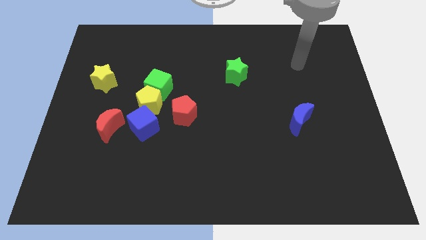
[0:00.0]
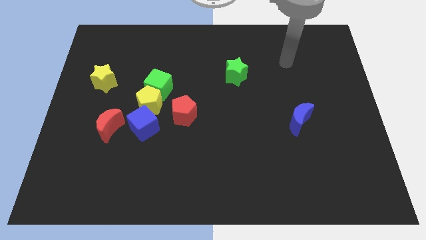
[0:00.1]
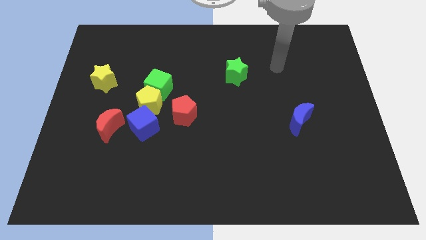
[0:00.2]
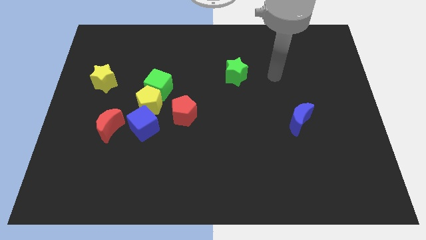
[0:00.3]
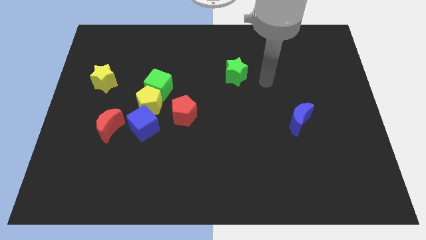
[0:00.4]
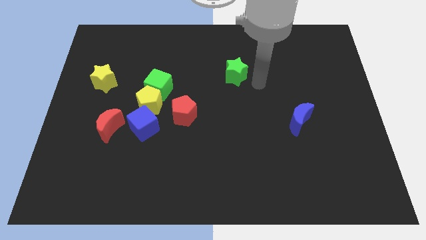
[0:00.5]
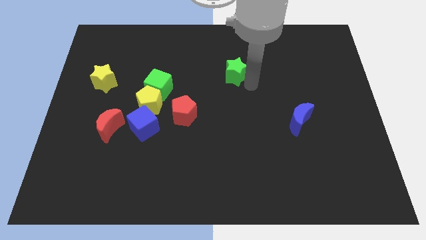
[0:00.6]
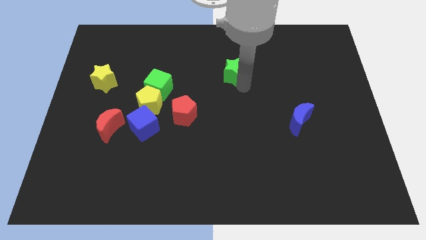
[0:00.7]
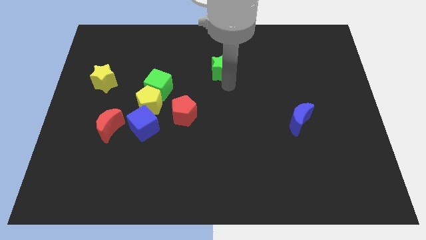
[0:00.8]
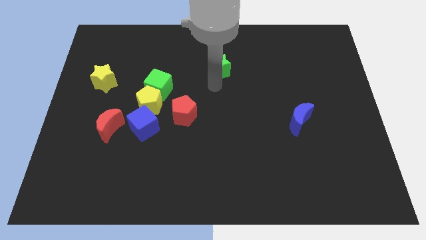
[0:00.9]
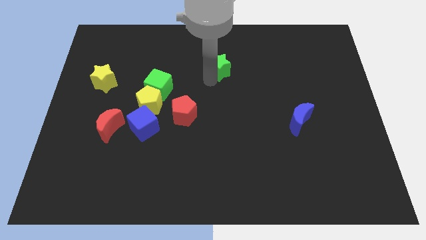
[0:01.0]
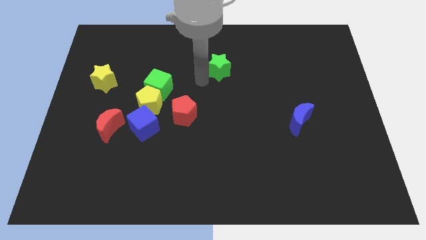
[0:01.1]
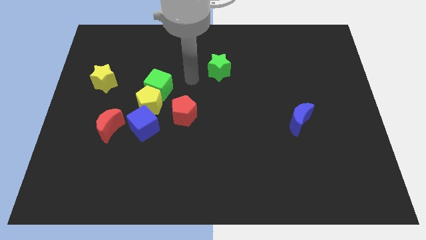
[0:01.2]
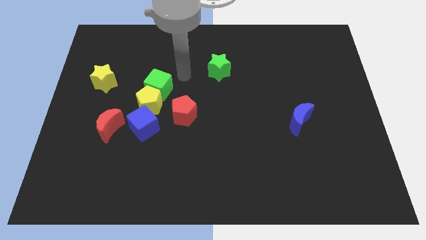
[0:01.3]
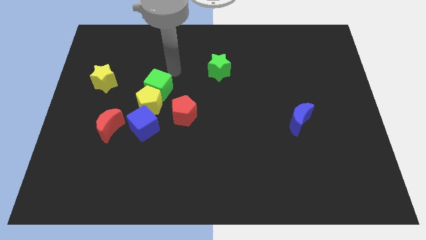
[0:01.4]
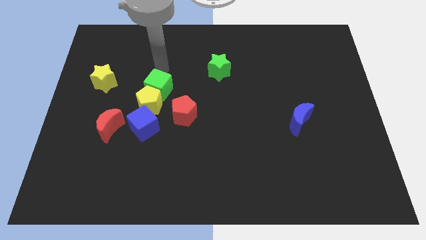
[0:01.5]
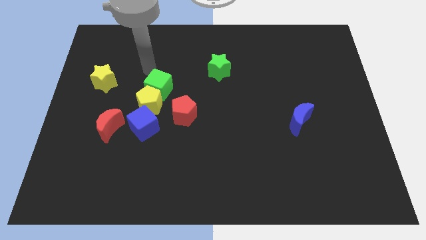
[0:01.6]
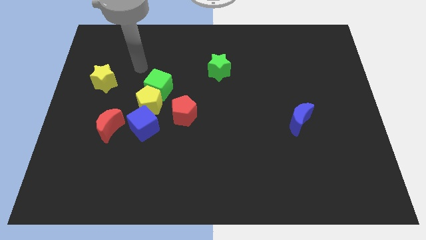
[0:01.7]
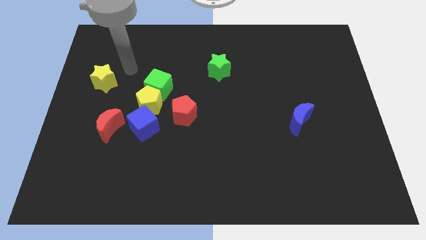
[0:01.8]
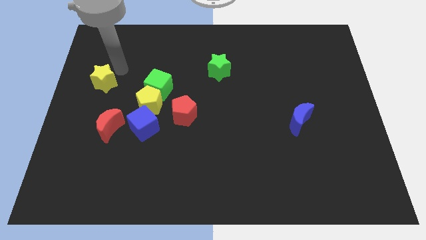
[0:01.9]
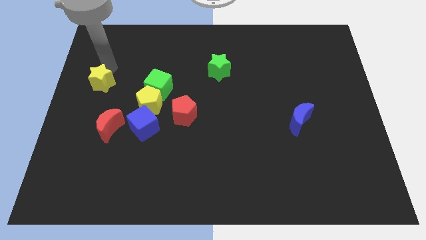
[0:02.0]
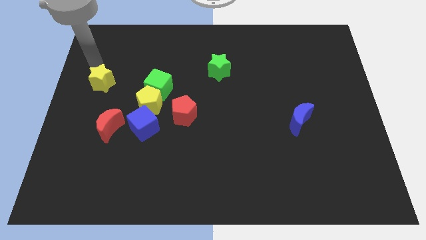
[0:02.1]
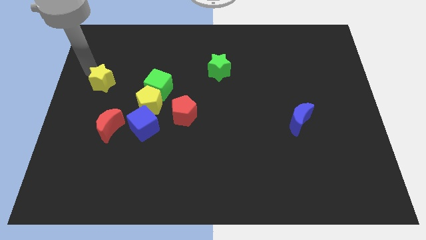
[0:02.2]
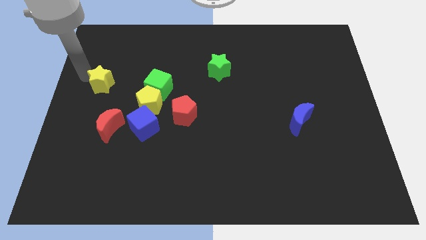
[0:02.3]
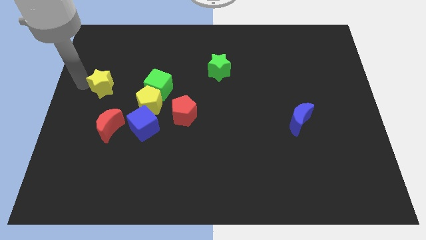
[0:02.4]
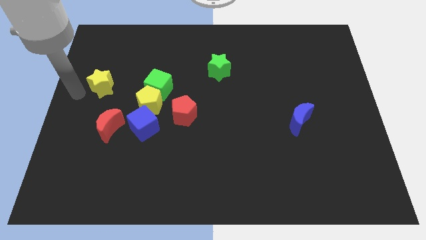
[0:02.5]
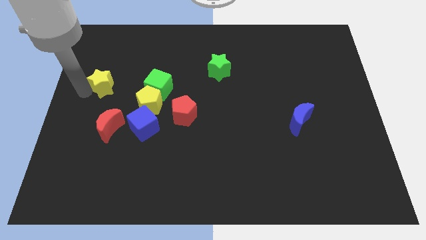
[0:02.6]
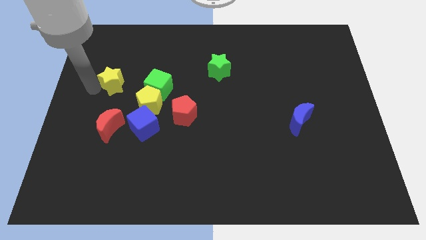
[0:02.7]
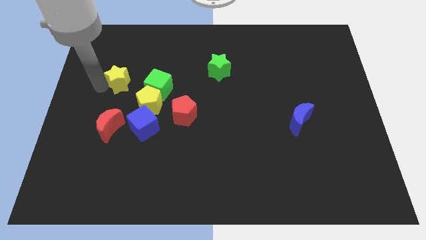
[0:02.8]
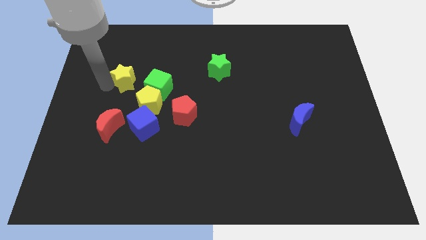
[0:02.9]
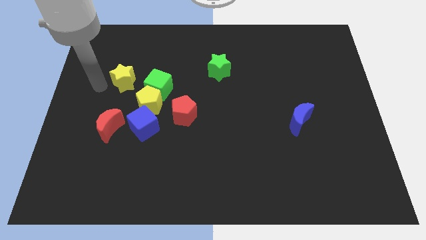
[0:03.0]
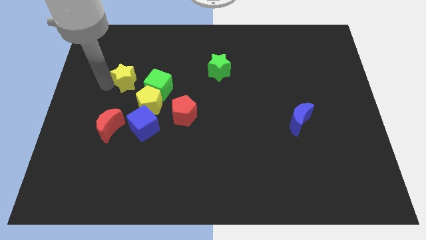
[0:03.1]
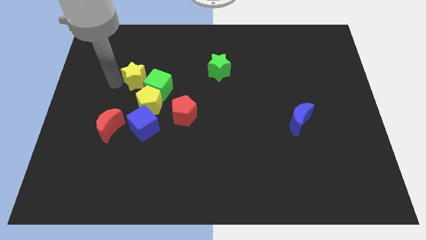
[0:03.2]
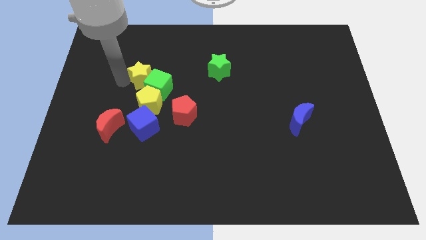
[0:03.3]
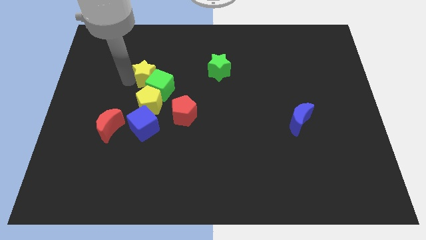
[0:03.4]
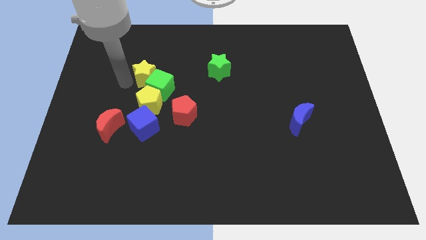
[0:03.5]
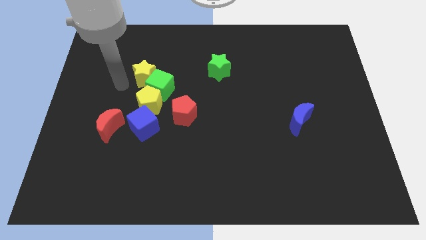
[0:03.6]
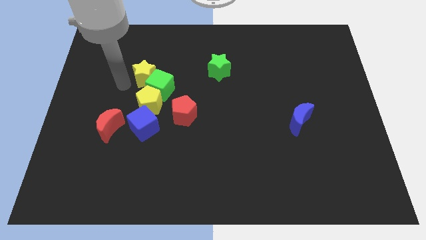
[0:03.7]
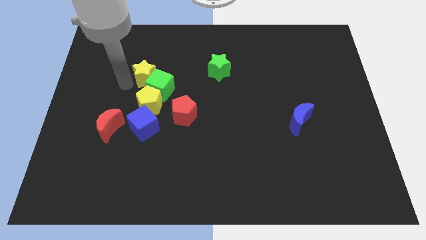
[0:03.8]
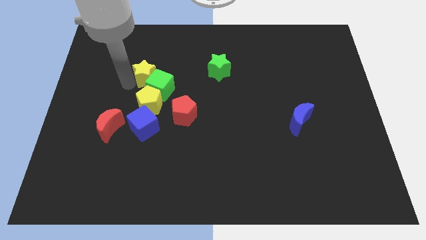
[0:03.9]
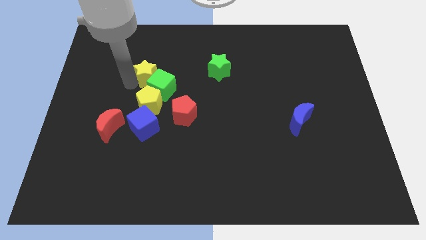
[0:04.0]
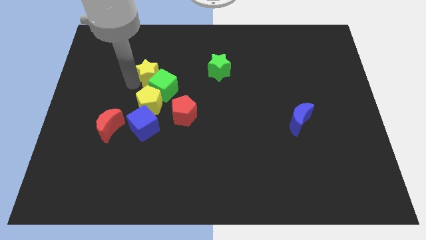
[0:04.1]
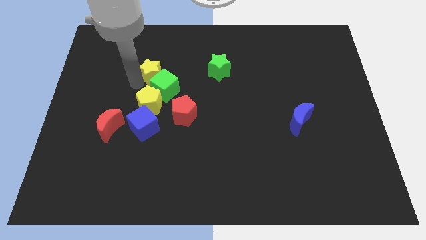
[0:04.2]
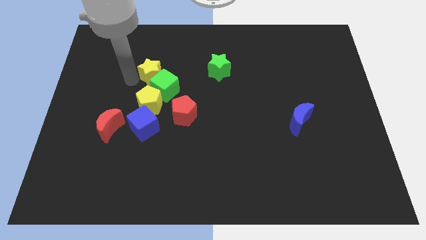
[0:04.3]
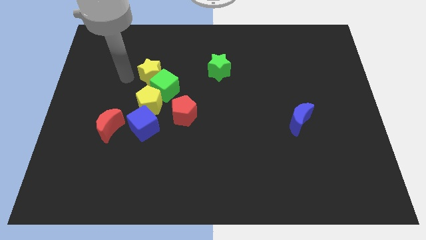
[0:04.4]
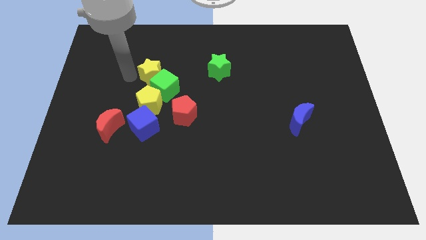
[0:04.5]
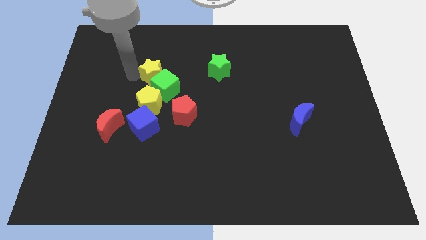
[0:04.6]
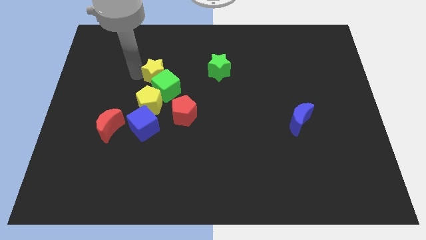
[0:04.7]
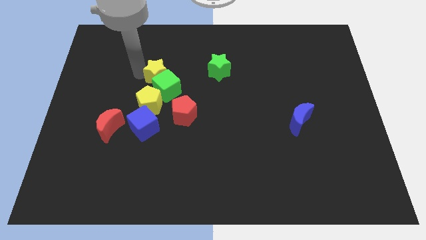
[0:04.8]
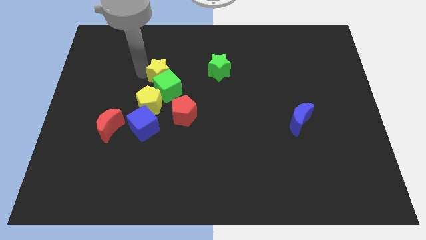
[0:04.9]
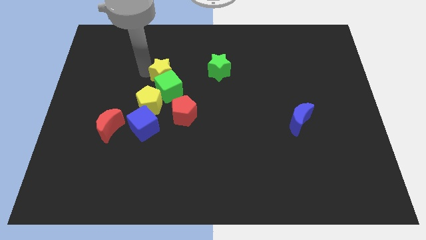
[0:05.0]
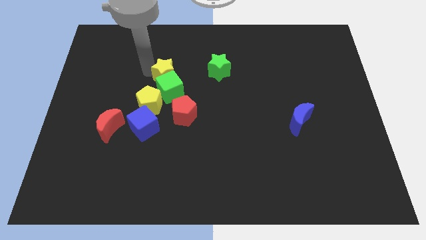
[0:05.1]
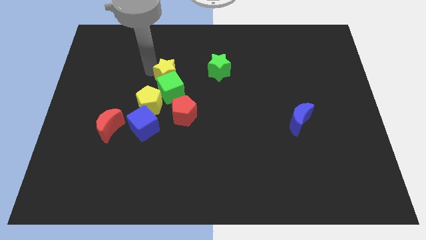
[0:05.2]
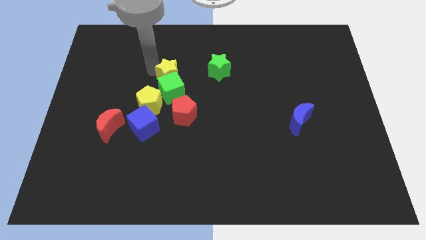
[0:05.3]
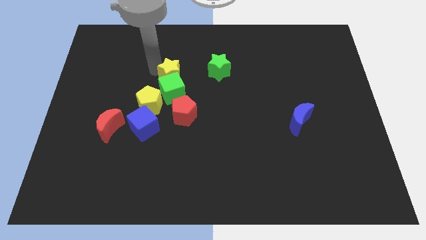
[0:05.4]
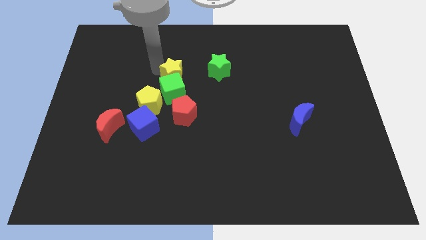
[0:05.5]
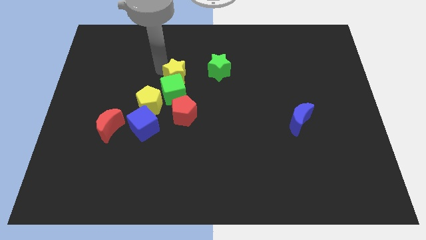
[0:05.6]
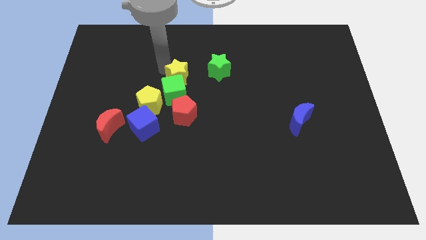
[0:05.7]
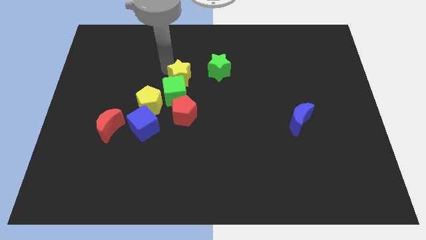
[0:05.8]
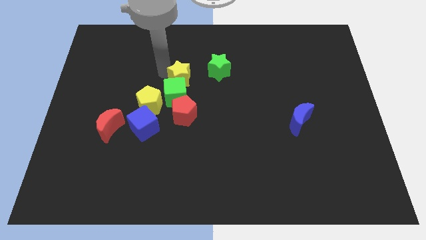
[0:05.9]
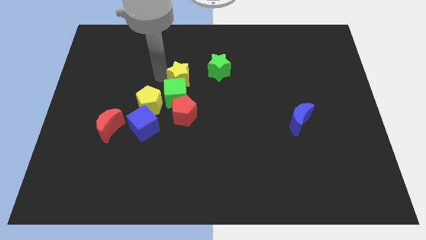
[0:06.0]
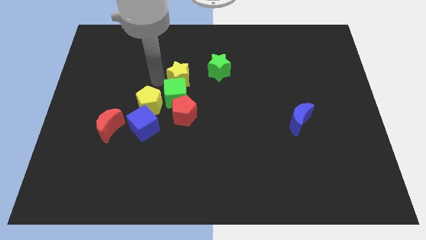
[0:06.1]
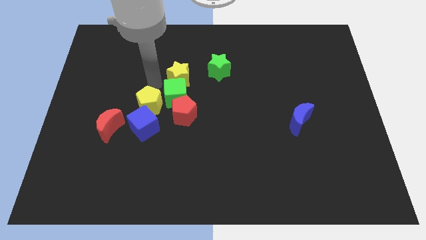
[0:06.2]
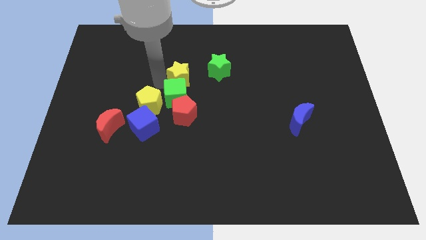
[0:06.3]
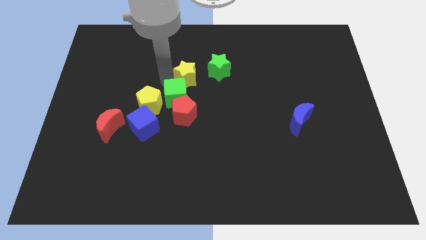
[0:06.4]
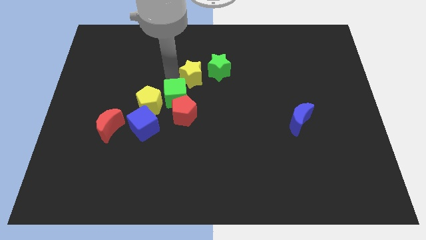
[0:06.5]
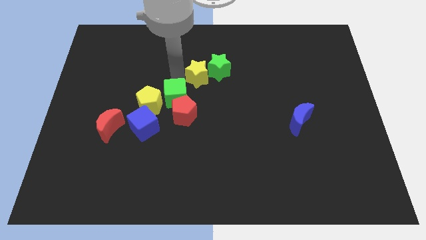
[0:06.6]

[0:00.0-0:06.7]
move the yellow star close to the green star
